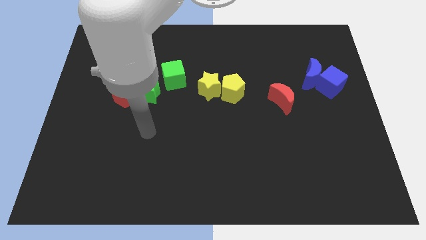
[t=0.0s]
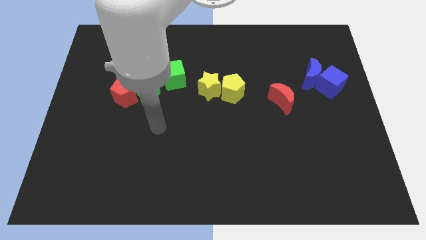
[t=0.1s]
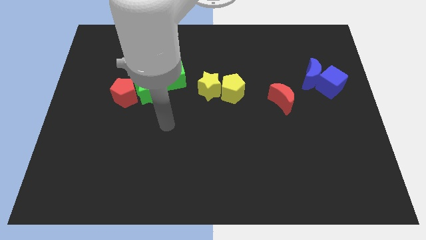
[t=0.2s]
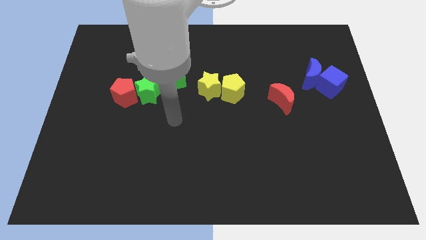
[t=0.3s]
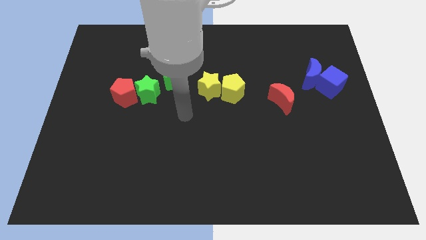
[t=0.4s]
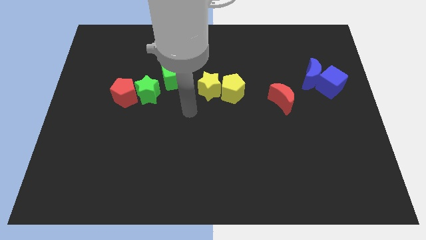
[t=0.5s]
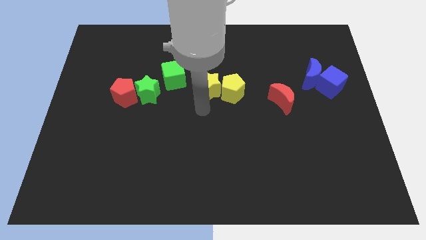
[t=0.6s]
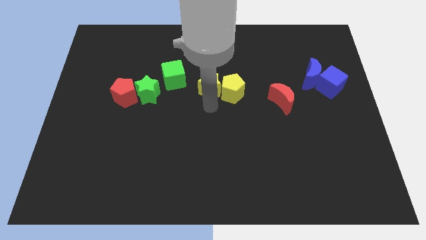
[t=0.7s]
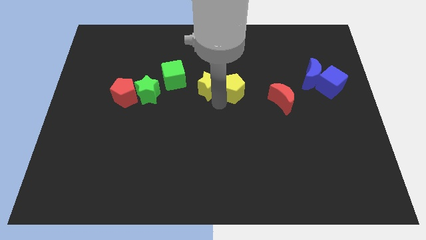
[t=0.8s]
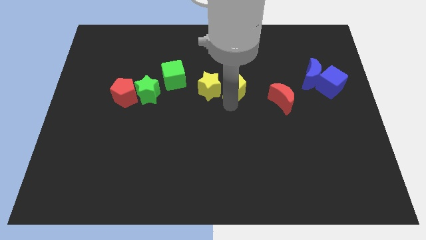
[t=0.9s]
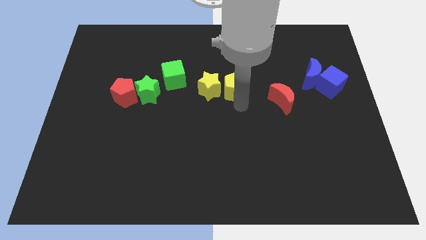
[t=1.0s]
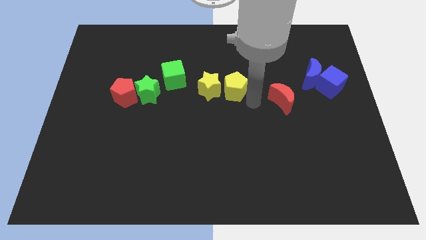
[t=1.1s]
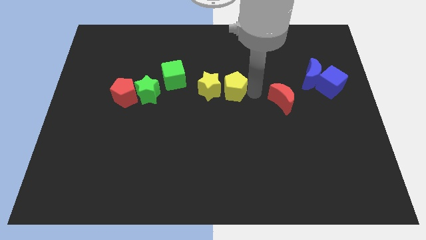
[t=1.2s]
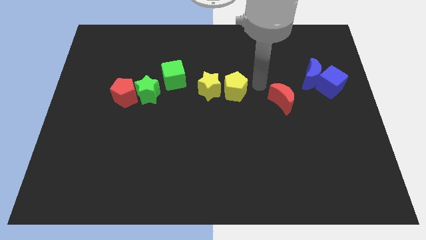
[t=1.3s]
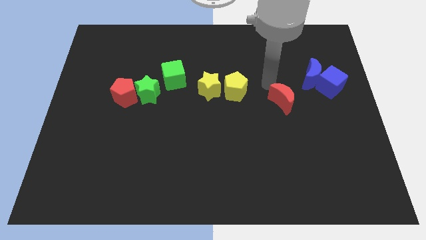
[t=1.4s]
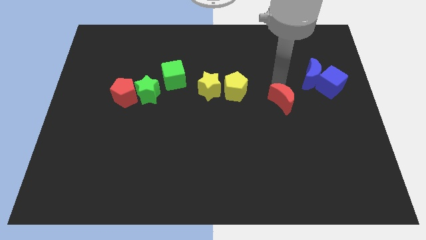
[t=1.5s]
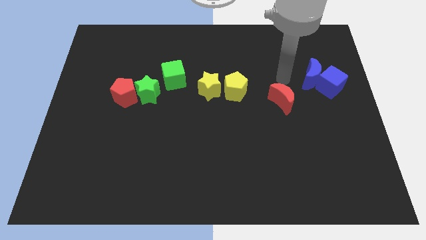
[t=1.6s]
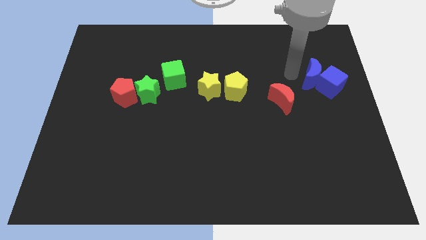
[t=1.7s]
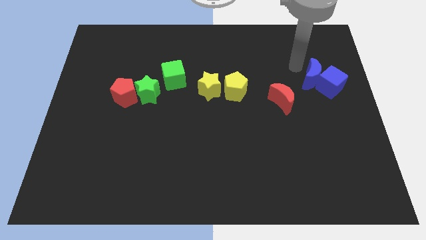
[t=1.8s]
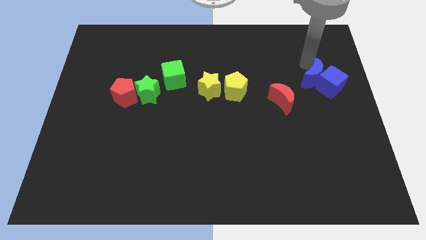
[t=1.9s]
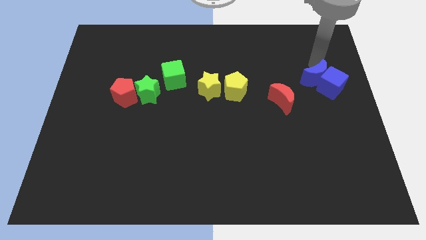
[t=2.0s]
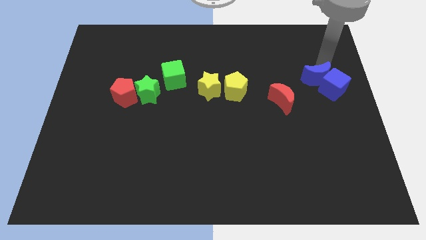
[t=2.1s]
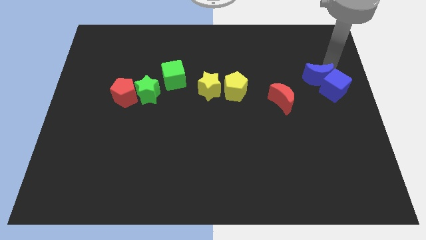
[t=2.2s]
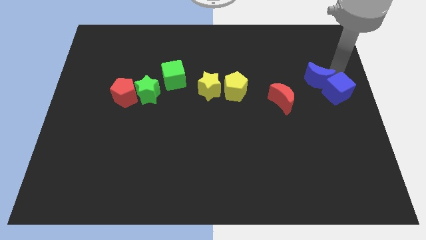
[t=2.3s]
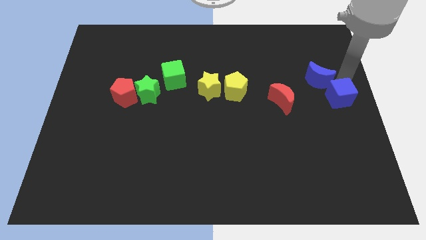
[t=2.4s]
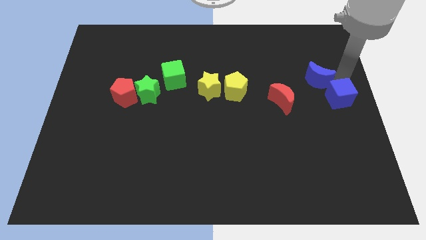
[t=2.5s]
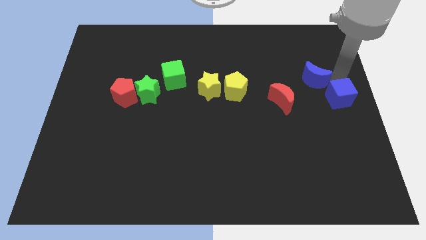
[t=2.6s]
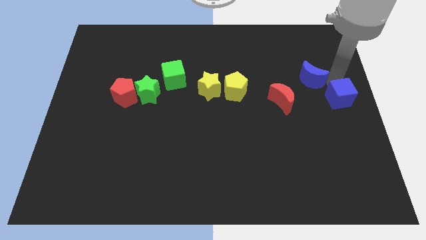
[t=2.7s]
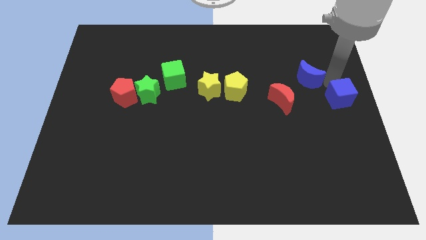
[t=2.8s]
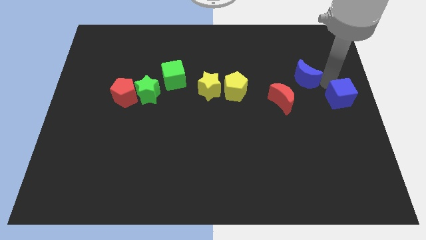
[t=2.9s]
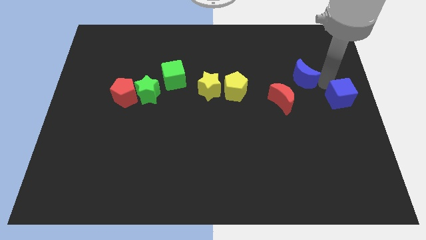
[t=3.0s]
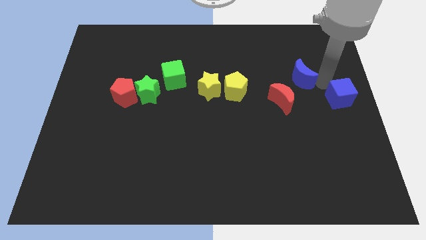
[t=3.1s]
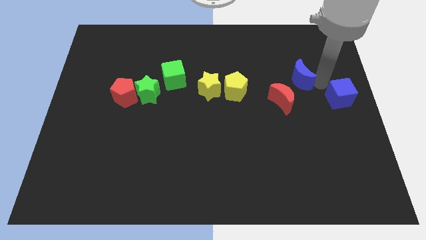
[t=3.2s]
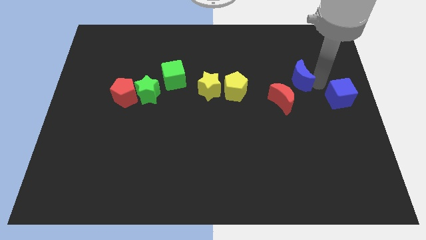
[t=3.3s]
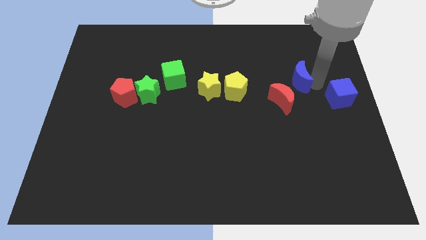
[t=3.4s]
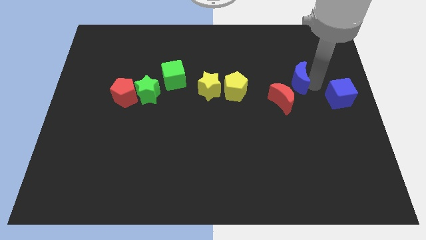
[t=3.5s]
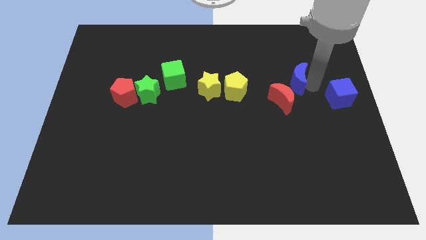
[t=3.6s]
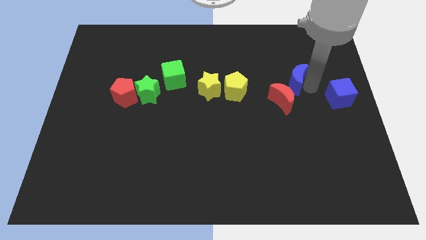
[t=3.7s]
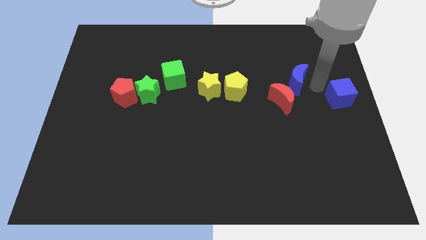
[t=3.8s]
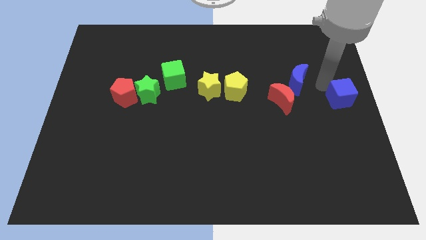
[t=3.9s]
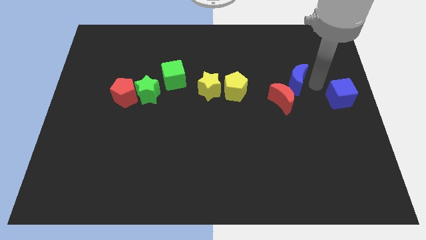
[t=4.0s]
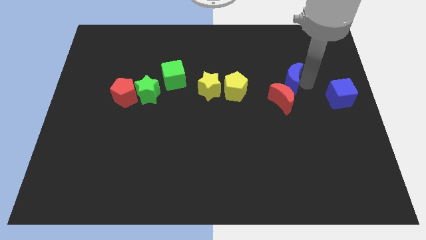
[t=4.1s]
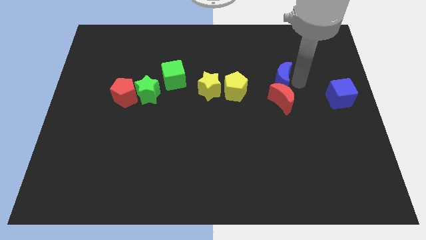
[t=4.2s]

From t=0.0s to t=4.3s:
slide the blue moon a little to the left

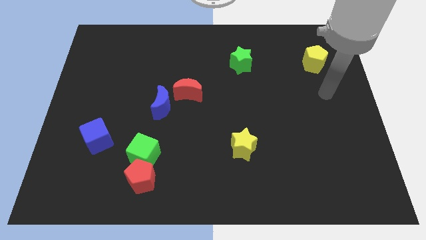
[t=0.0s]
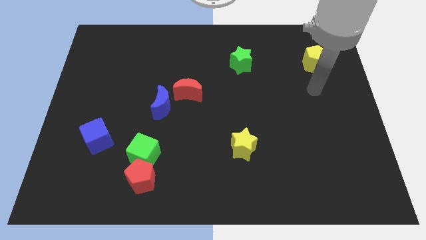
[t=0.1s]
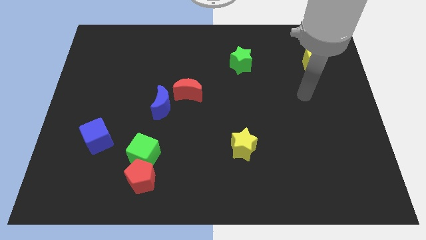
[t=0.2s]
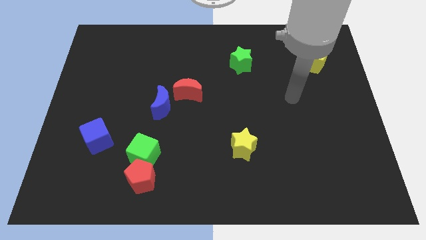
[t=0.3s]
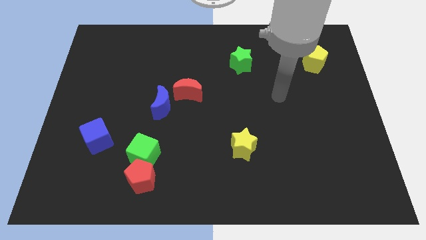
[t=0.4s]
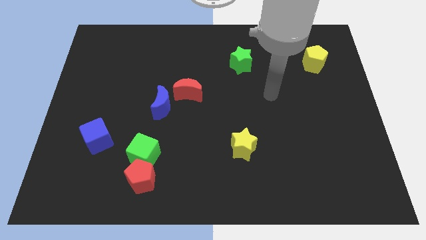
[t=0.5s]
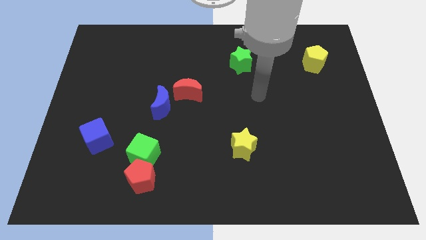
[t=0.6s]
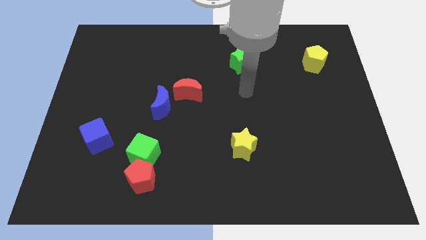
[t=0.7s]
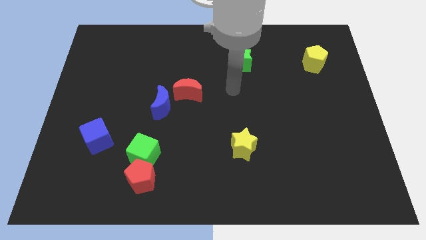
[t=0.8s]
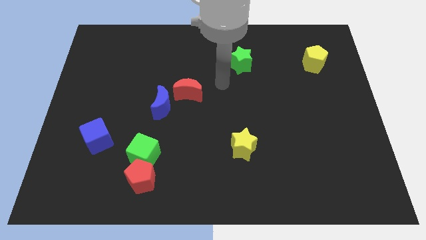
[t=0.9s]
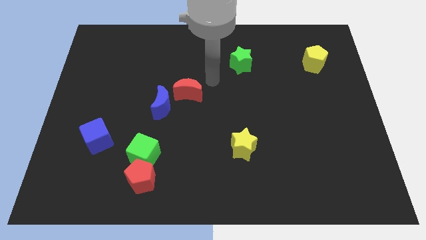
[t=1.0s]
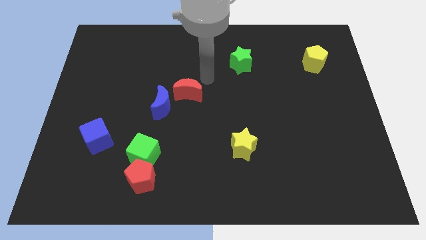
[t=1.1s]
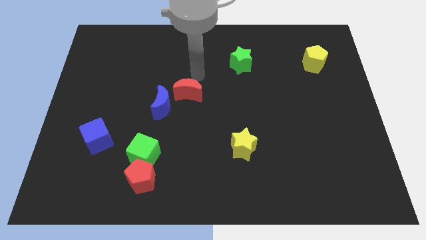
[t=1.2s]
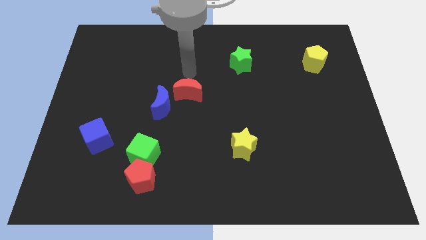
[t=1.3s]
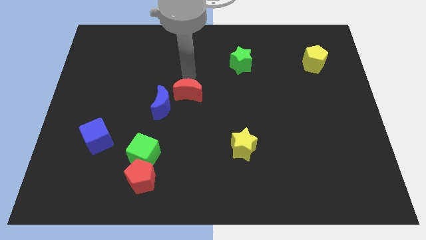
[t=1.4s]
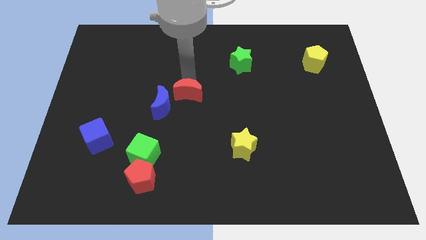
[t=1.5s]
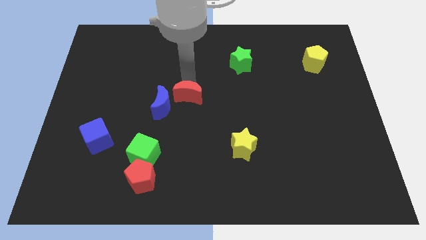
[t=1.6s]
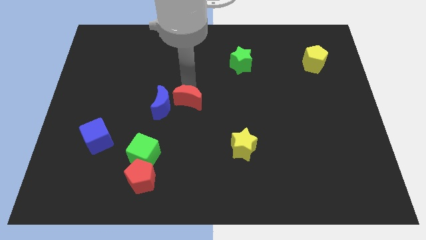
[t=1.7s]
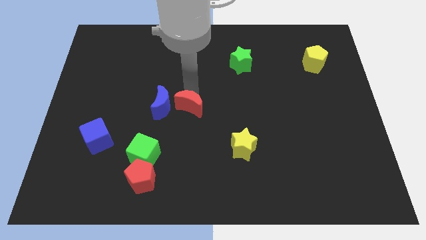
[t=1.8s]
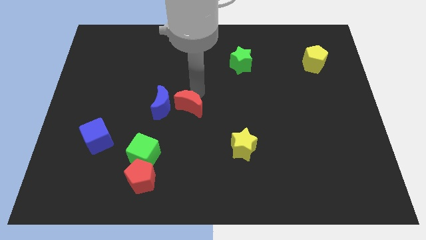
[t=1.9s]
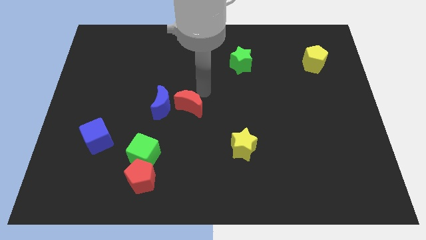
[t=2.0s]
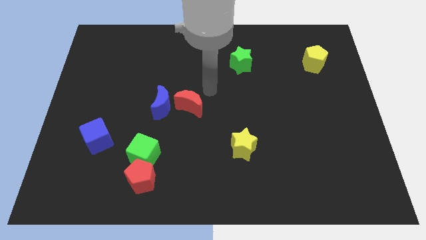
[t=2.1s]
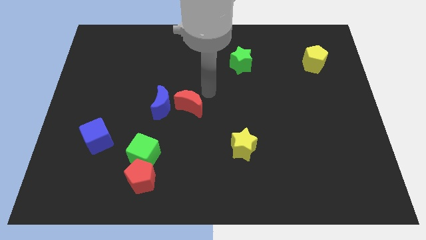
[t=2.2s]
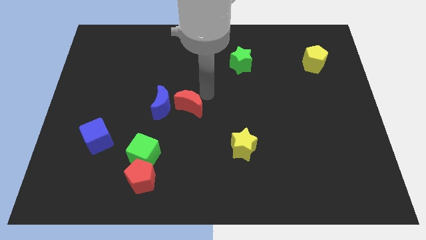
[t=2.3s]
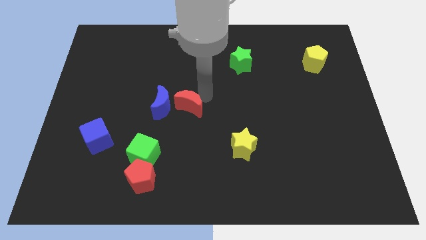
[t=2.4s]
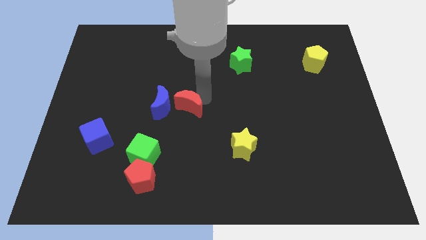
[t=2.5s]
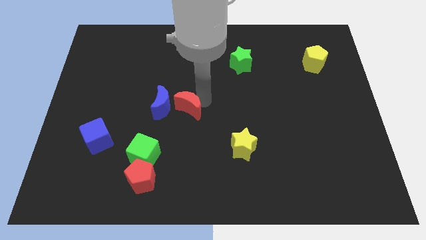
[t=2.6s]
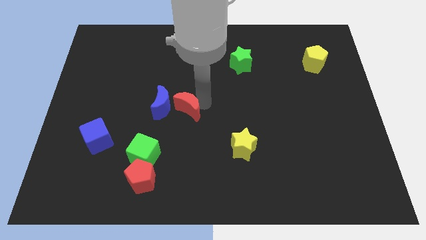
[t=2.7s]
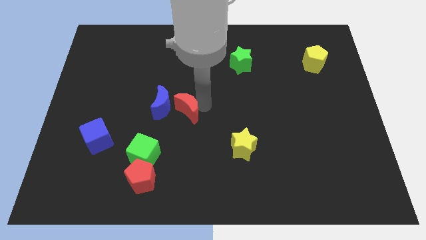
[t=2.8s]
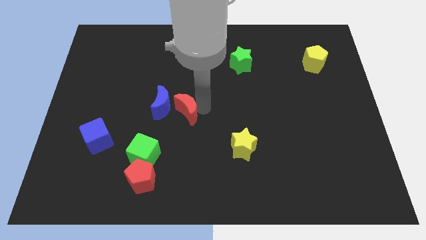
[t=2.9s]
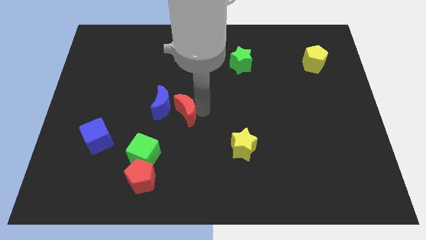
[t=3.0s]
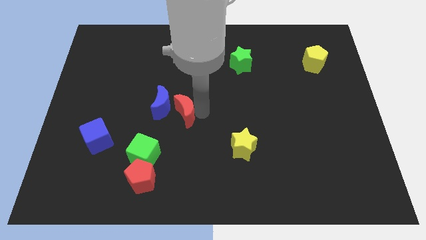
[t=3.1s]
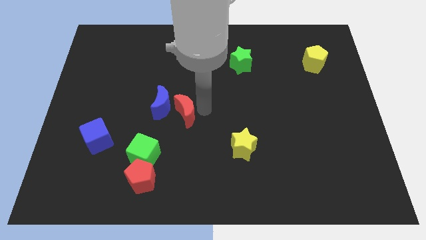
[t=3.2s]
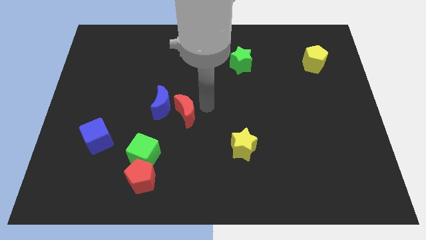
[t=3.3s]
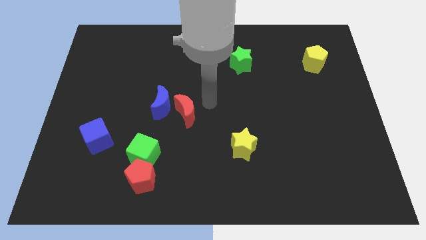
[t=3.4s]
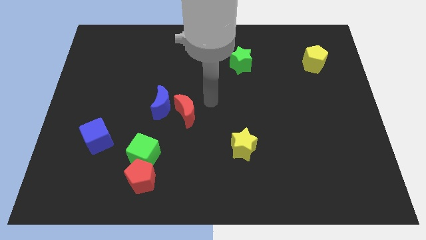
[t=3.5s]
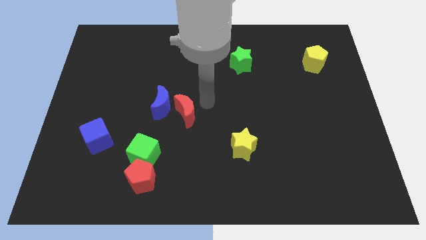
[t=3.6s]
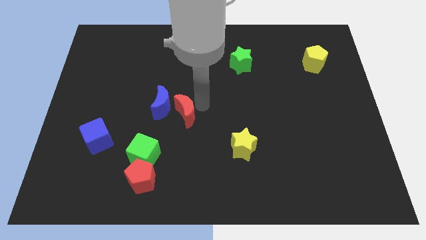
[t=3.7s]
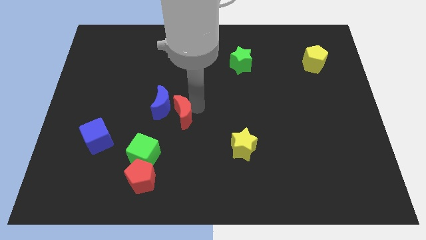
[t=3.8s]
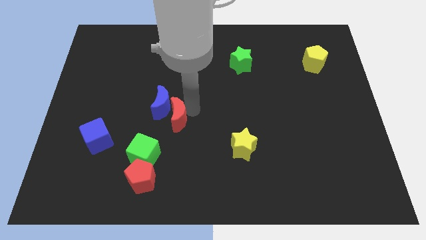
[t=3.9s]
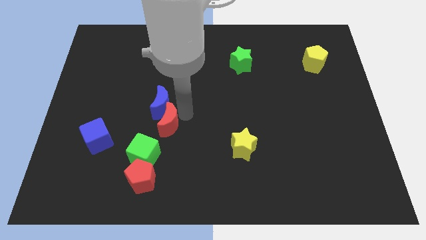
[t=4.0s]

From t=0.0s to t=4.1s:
push the red moon downwards and left diagonally a little bit
